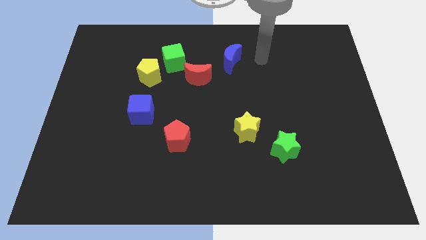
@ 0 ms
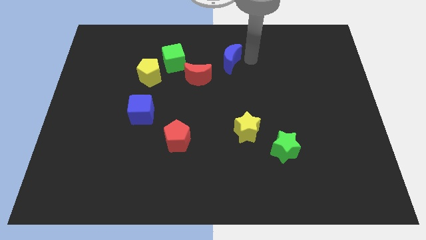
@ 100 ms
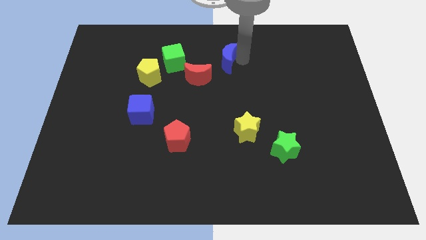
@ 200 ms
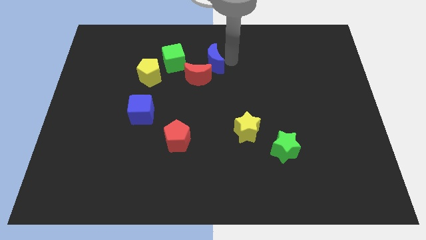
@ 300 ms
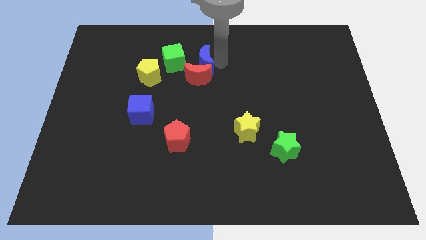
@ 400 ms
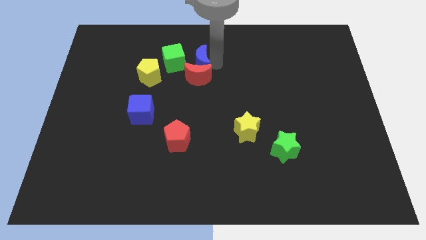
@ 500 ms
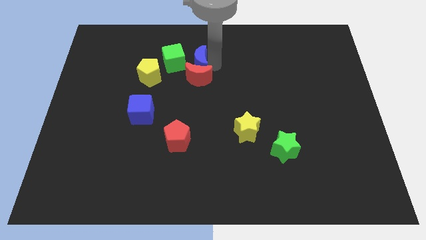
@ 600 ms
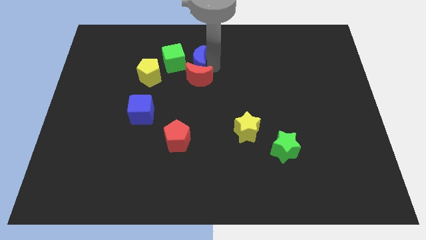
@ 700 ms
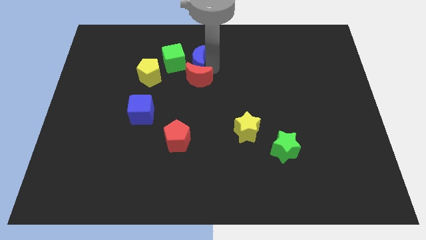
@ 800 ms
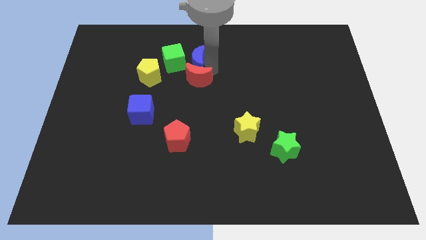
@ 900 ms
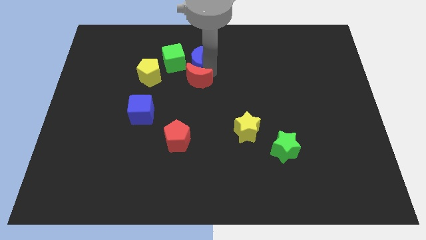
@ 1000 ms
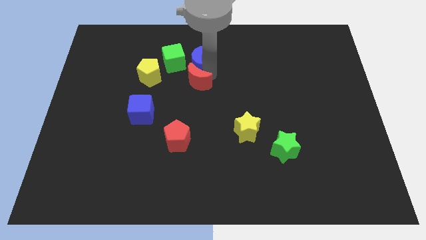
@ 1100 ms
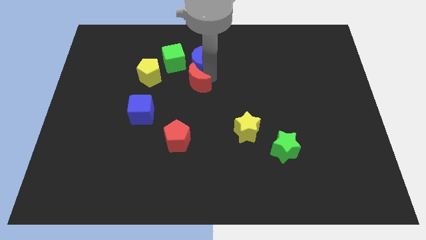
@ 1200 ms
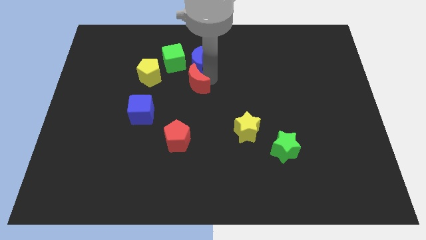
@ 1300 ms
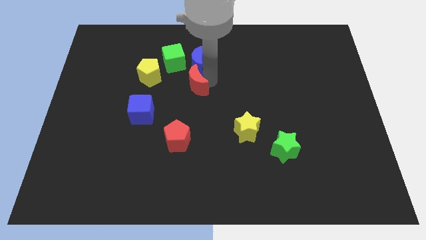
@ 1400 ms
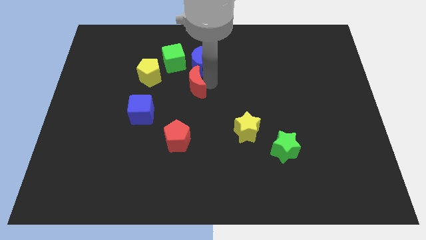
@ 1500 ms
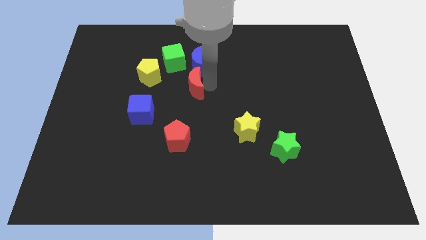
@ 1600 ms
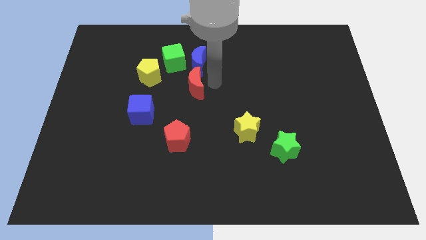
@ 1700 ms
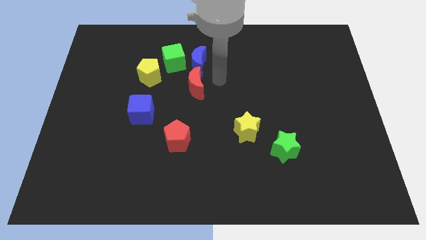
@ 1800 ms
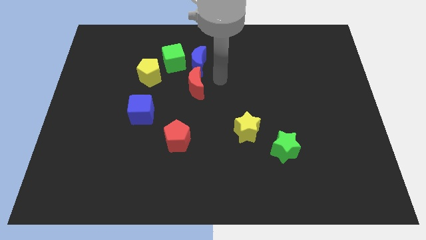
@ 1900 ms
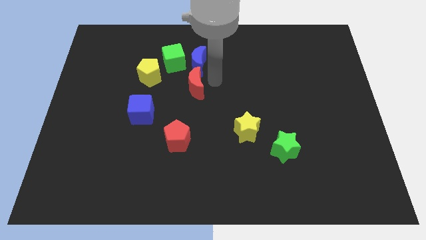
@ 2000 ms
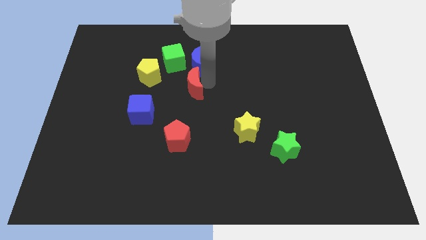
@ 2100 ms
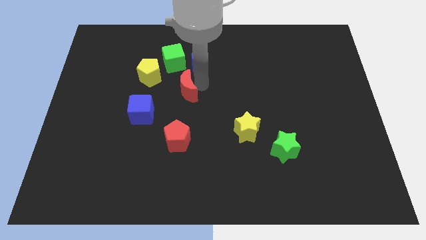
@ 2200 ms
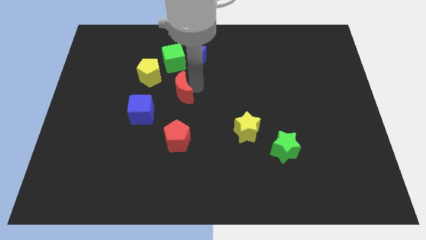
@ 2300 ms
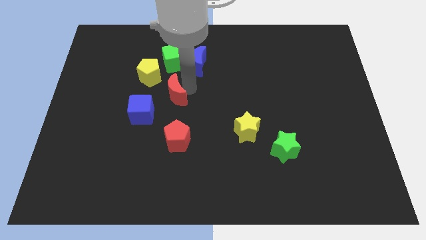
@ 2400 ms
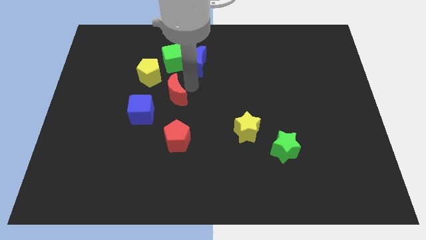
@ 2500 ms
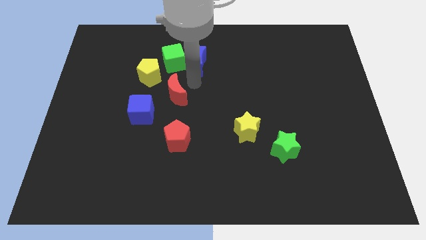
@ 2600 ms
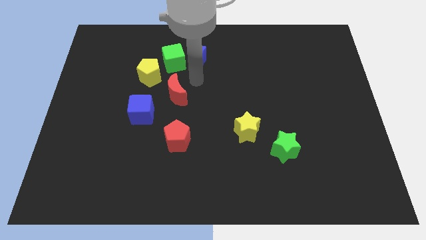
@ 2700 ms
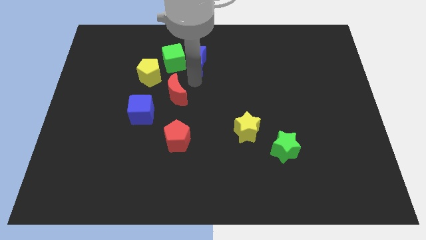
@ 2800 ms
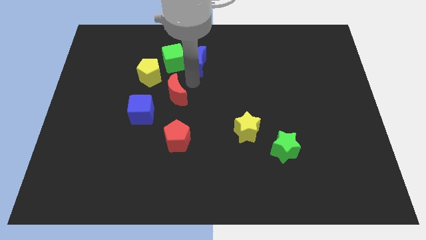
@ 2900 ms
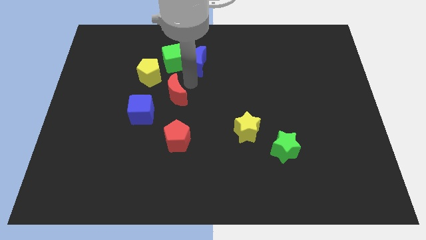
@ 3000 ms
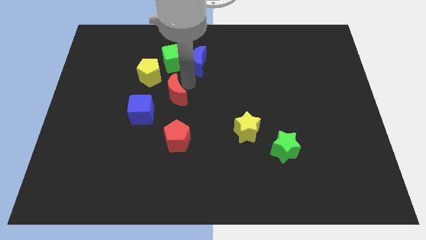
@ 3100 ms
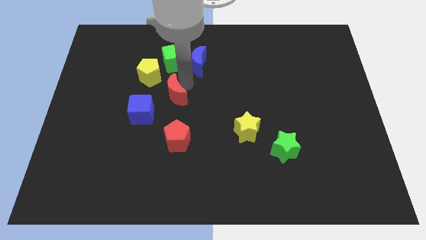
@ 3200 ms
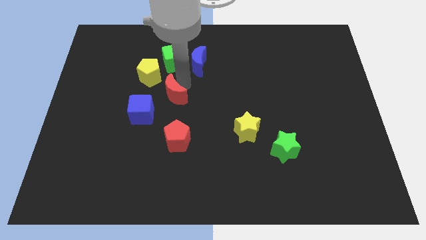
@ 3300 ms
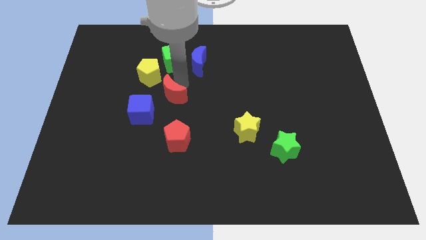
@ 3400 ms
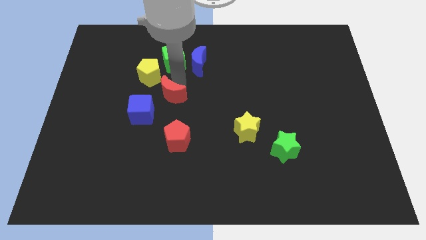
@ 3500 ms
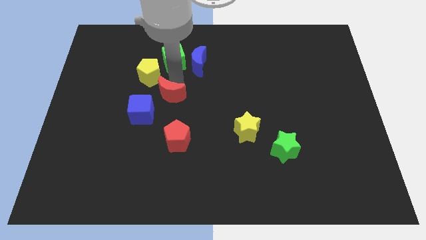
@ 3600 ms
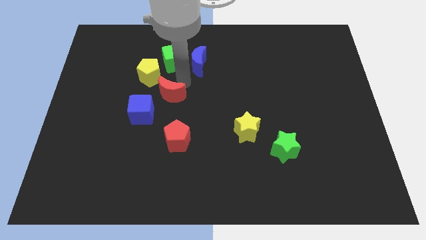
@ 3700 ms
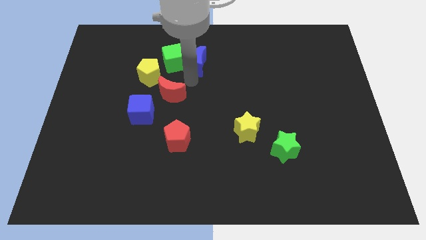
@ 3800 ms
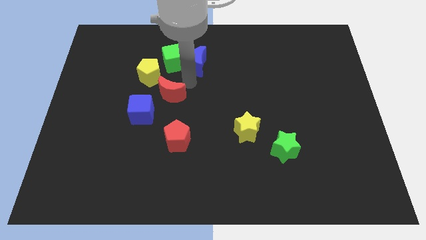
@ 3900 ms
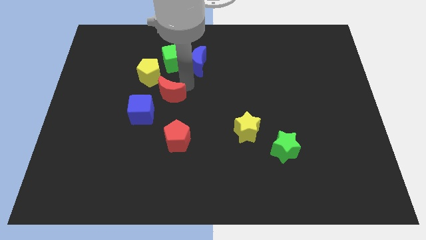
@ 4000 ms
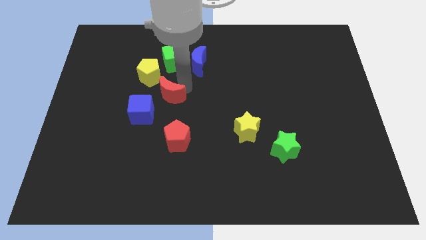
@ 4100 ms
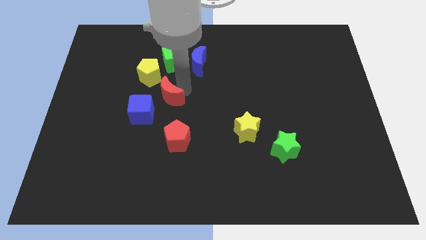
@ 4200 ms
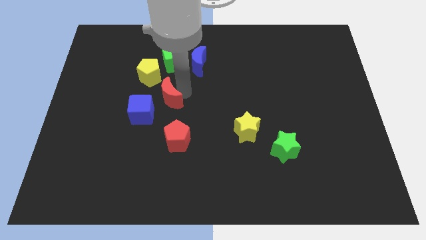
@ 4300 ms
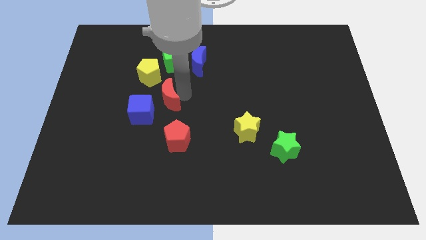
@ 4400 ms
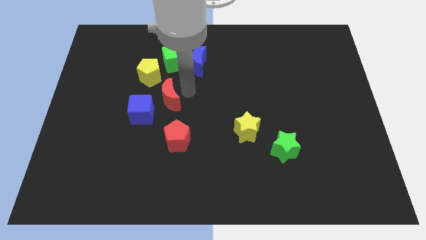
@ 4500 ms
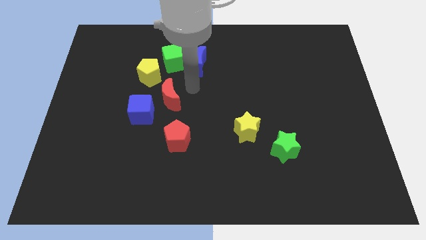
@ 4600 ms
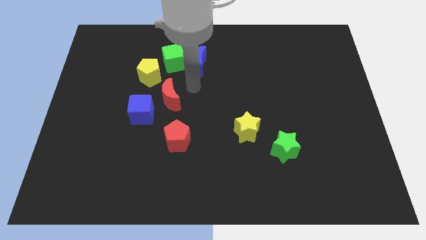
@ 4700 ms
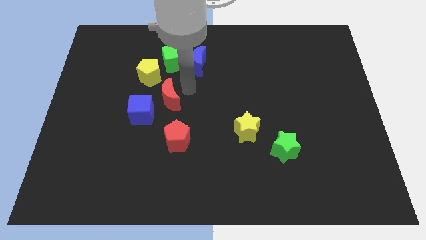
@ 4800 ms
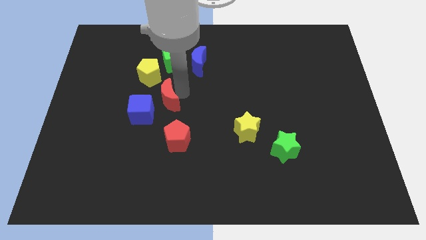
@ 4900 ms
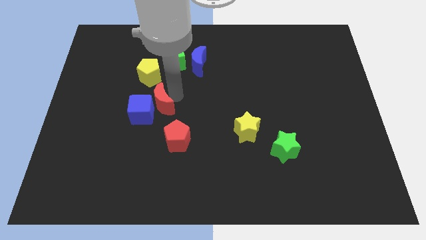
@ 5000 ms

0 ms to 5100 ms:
slide the red moon next to the blue cube

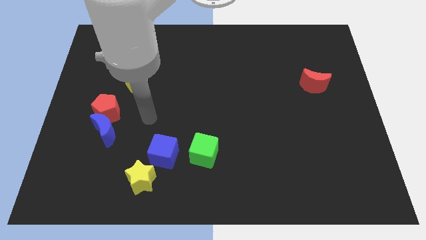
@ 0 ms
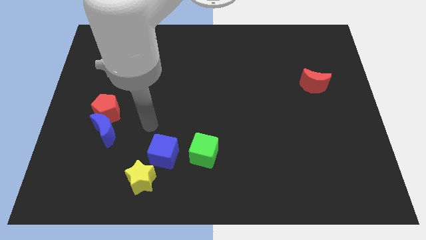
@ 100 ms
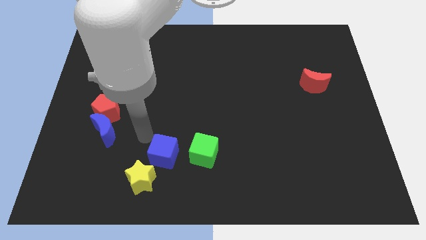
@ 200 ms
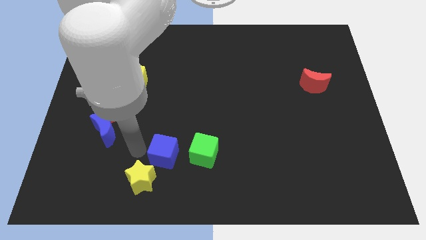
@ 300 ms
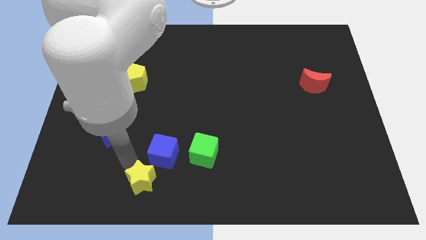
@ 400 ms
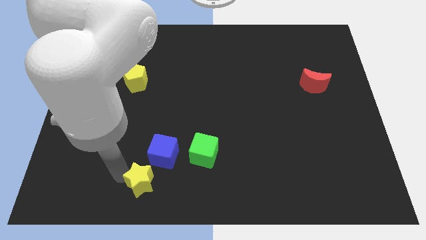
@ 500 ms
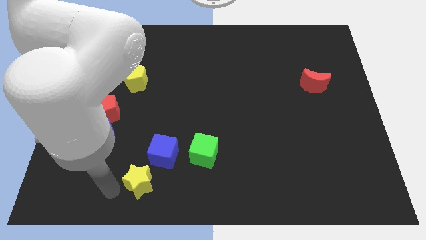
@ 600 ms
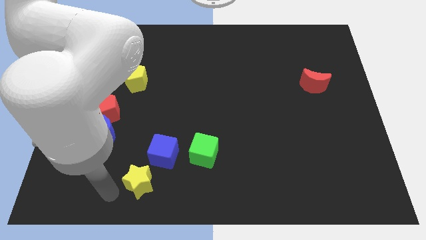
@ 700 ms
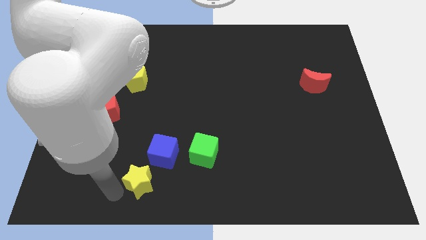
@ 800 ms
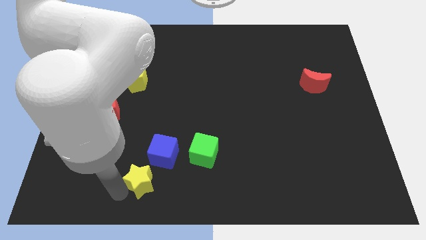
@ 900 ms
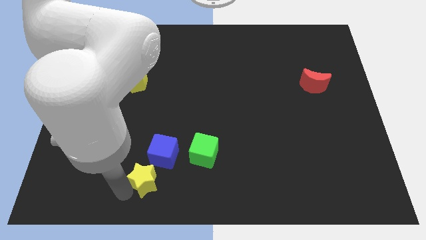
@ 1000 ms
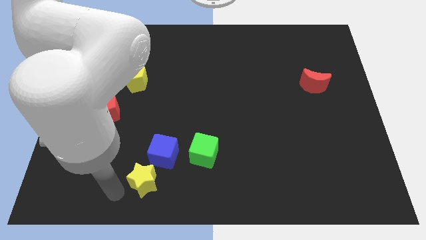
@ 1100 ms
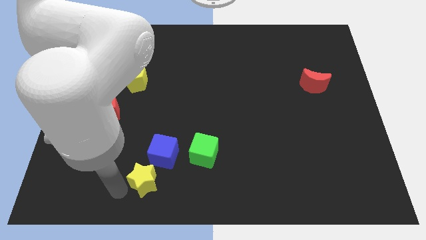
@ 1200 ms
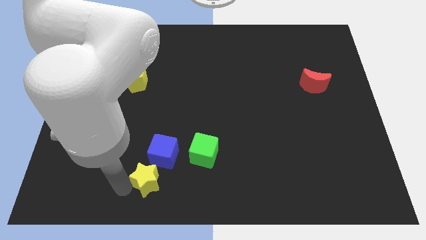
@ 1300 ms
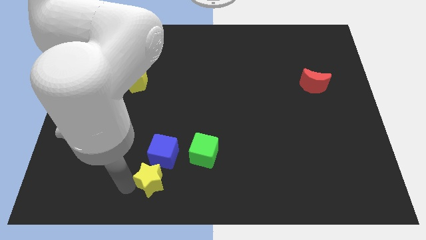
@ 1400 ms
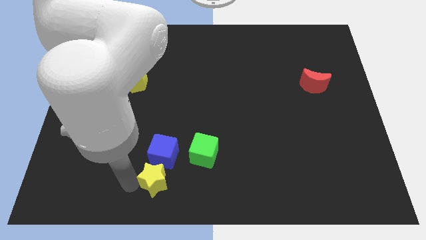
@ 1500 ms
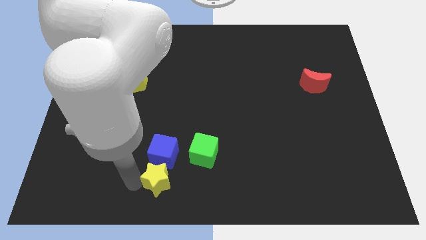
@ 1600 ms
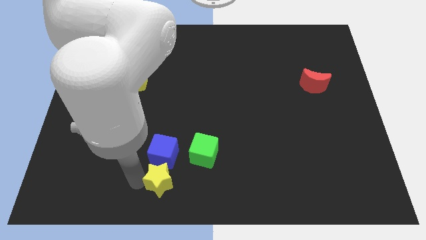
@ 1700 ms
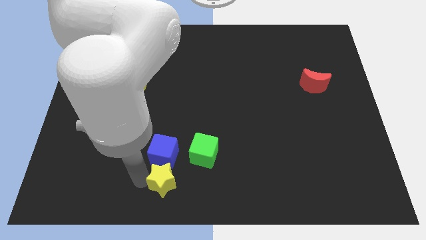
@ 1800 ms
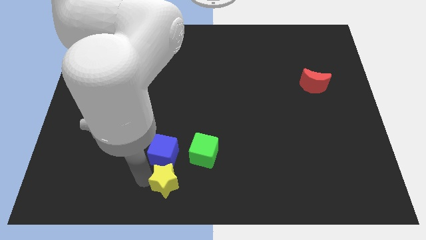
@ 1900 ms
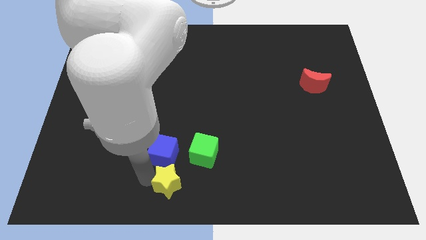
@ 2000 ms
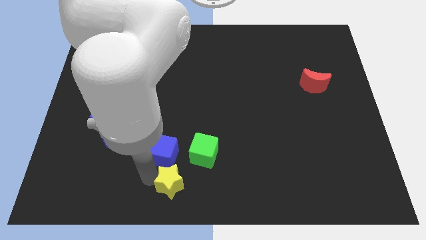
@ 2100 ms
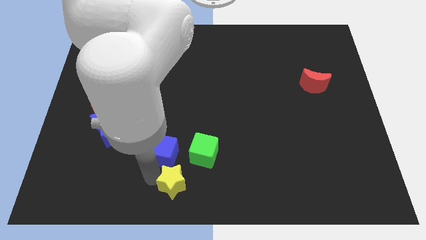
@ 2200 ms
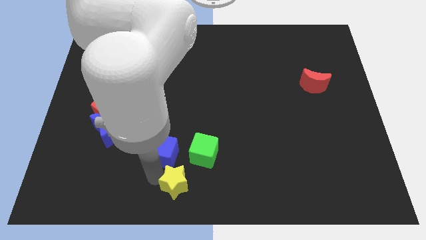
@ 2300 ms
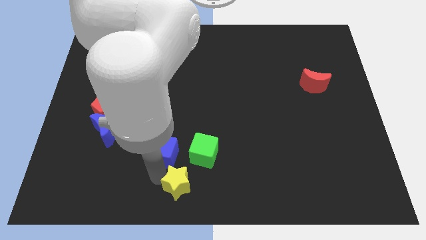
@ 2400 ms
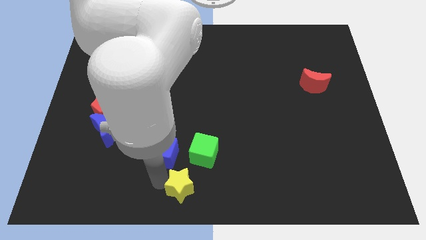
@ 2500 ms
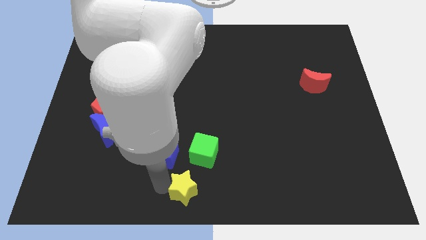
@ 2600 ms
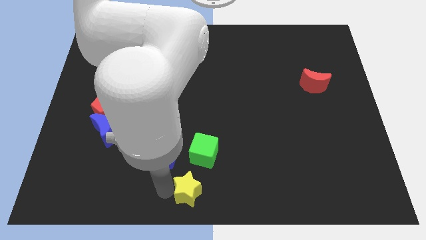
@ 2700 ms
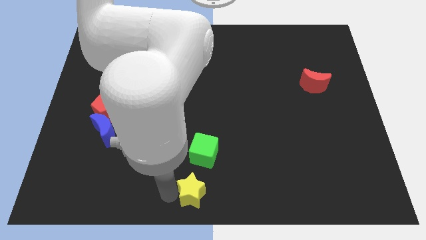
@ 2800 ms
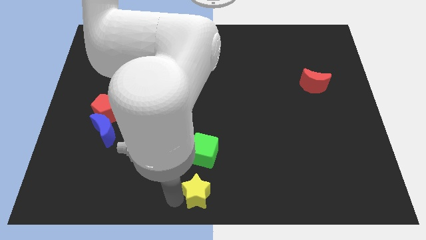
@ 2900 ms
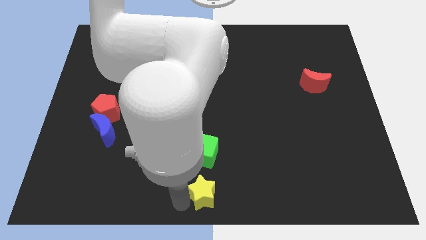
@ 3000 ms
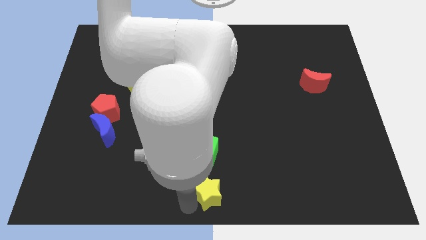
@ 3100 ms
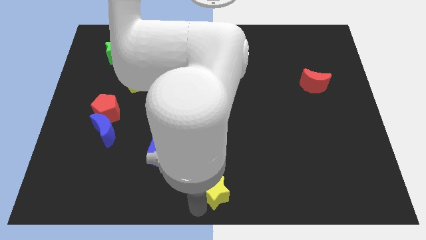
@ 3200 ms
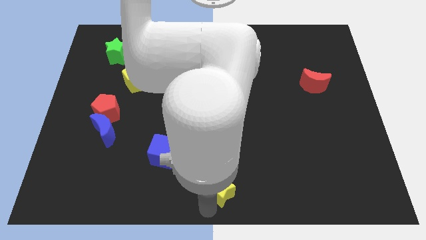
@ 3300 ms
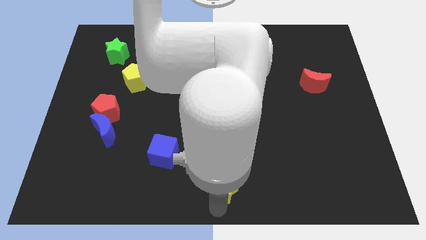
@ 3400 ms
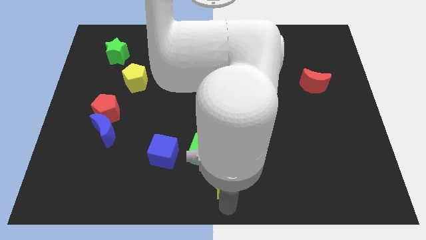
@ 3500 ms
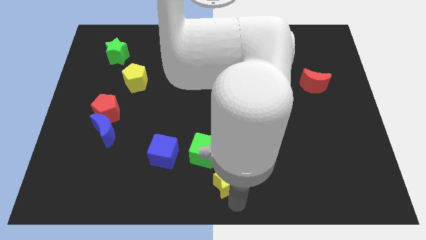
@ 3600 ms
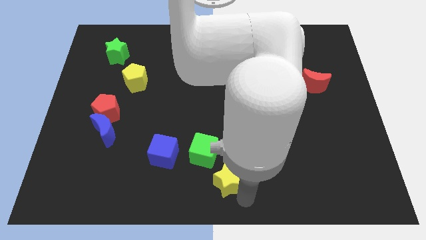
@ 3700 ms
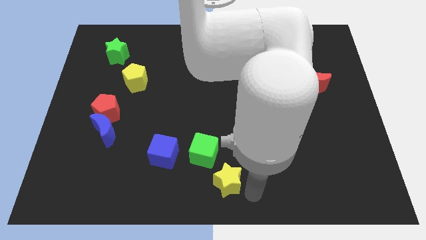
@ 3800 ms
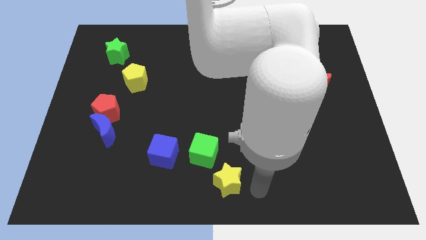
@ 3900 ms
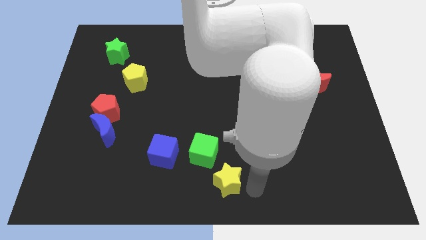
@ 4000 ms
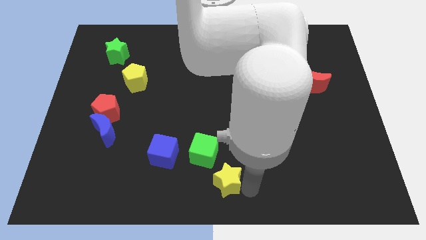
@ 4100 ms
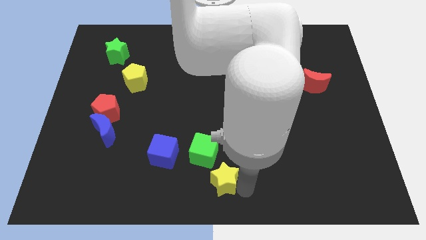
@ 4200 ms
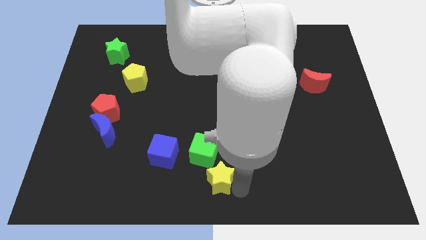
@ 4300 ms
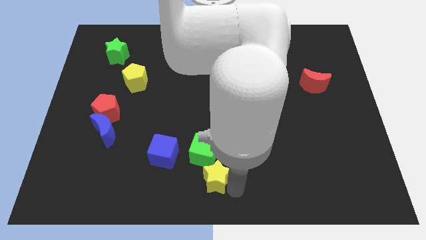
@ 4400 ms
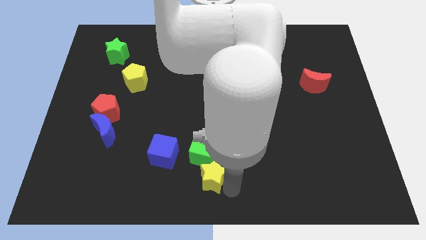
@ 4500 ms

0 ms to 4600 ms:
slide the yellow star towards the green cube
